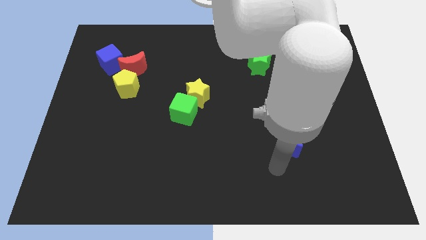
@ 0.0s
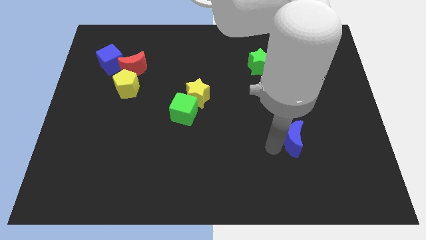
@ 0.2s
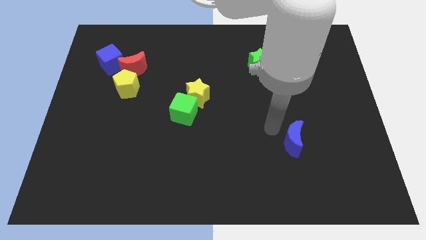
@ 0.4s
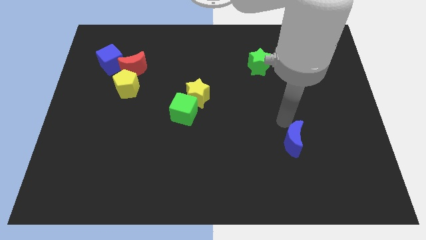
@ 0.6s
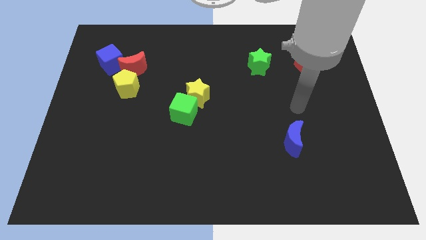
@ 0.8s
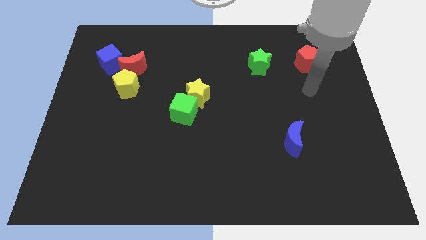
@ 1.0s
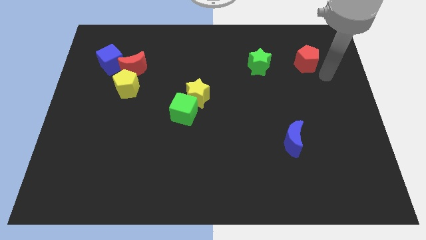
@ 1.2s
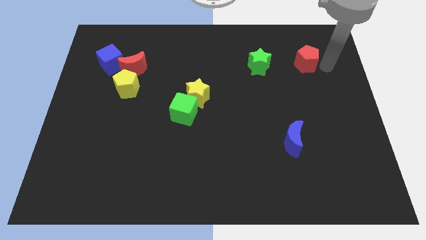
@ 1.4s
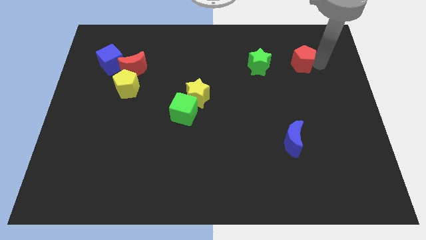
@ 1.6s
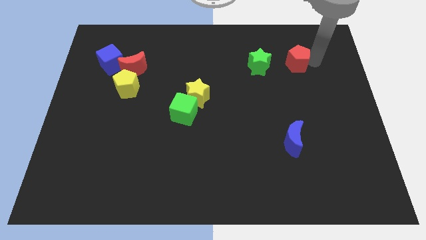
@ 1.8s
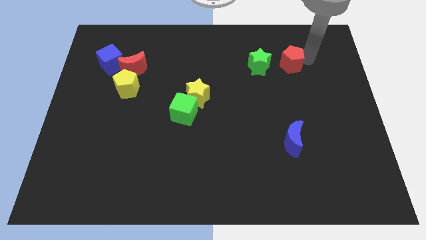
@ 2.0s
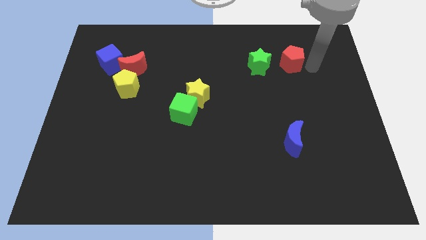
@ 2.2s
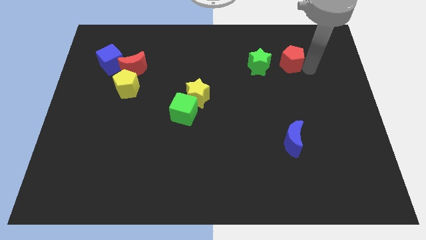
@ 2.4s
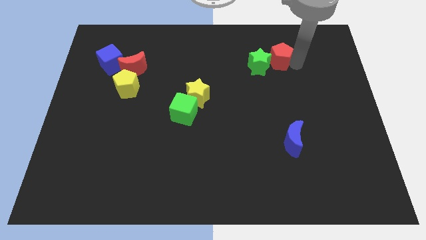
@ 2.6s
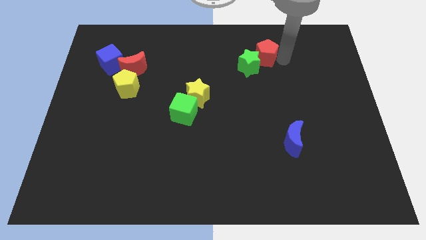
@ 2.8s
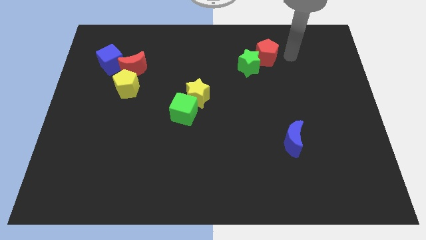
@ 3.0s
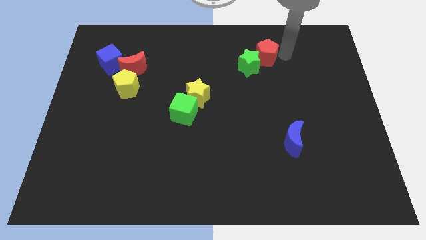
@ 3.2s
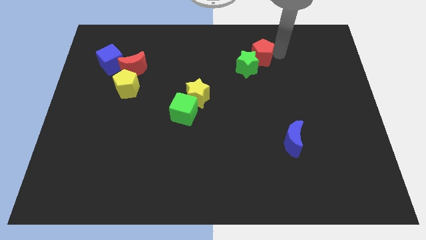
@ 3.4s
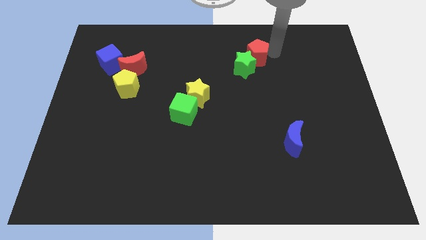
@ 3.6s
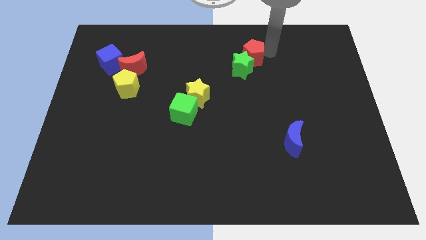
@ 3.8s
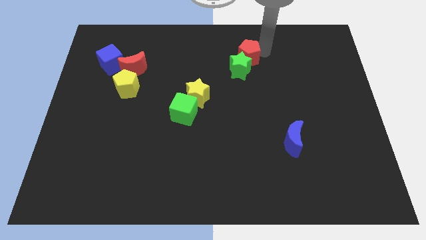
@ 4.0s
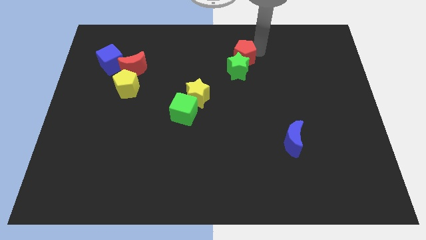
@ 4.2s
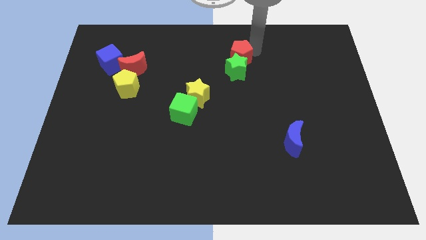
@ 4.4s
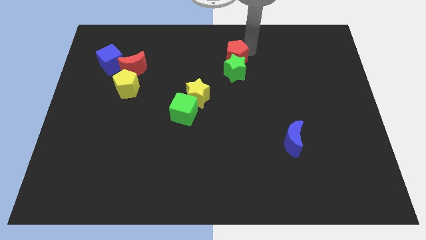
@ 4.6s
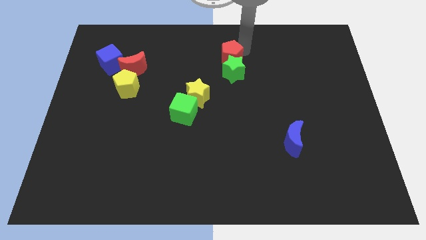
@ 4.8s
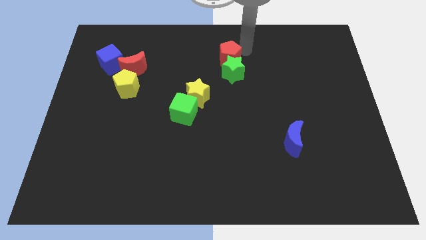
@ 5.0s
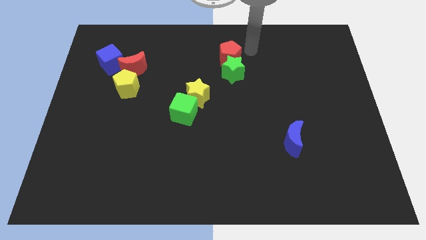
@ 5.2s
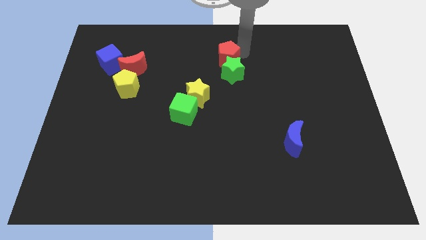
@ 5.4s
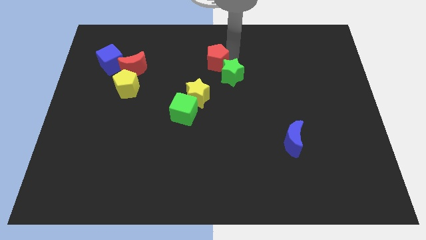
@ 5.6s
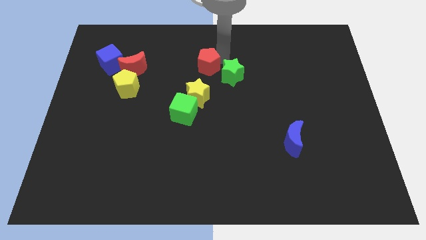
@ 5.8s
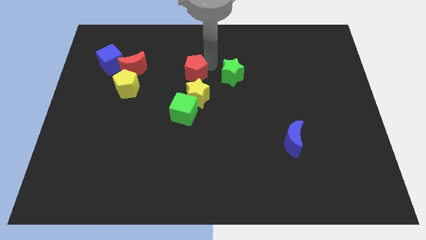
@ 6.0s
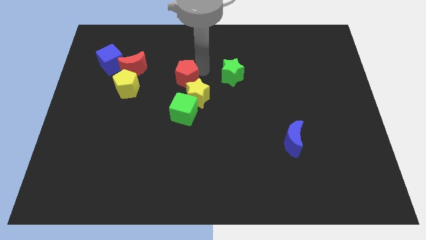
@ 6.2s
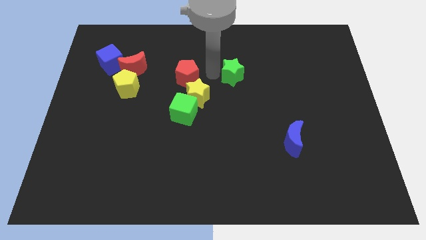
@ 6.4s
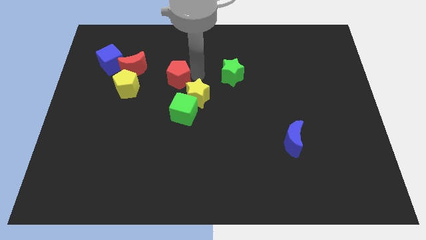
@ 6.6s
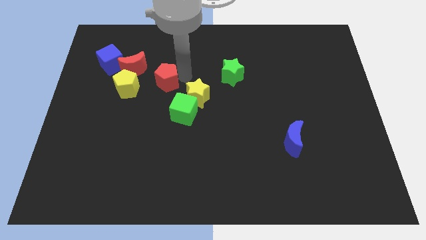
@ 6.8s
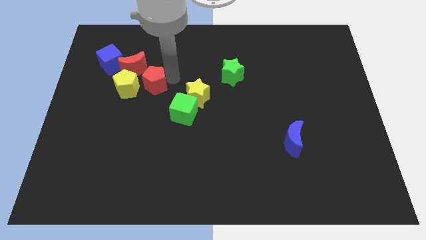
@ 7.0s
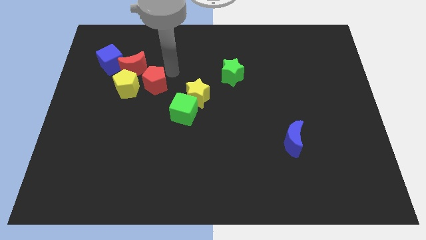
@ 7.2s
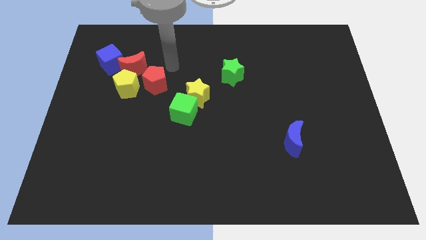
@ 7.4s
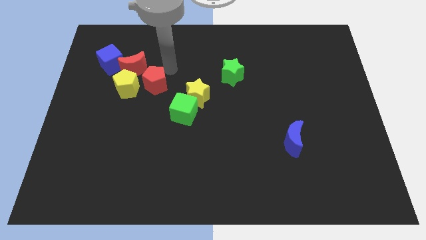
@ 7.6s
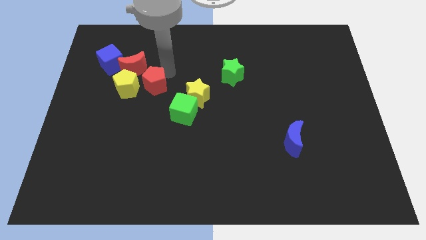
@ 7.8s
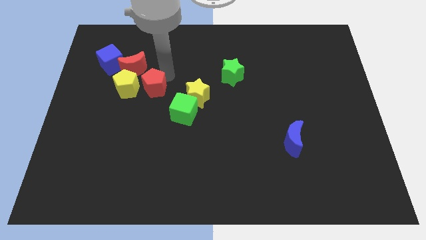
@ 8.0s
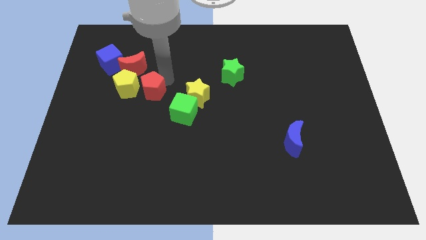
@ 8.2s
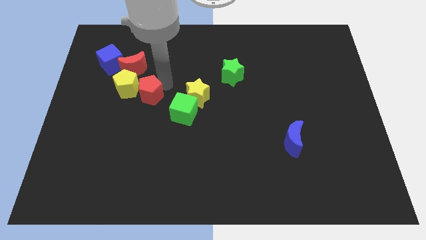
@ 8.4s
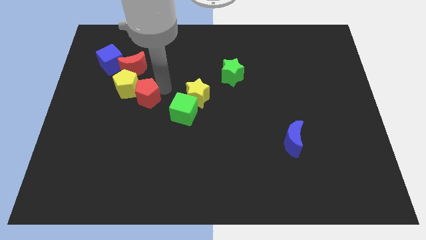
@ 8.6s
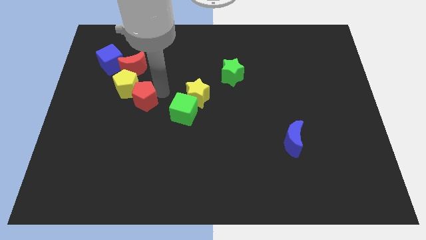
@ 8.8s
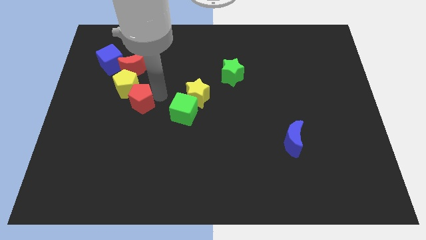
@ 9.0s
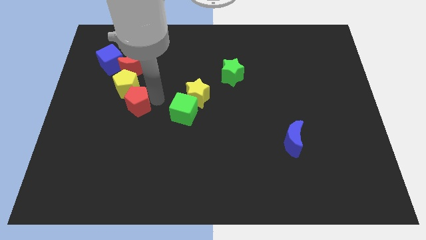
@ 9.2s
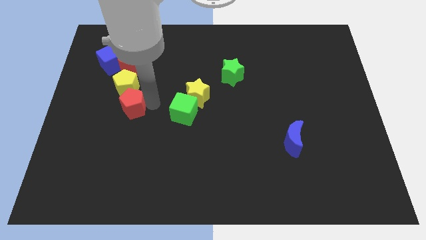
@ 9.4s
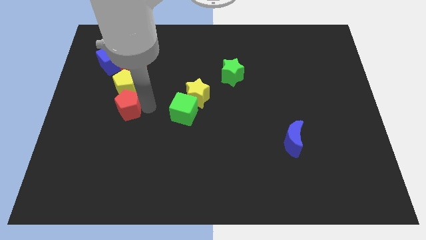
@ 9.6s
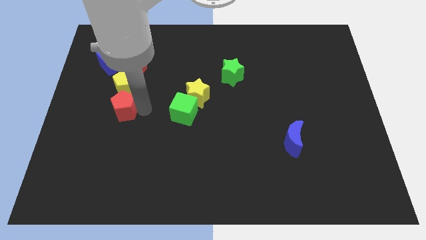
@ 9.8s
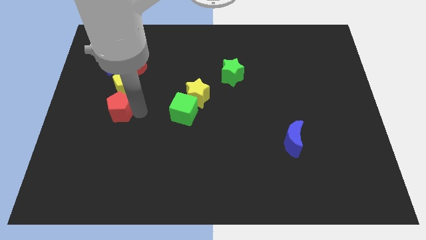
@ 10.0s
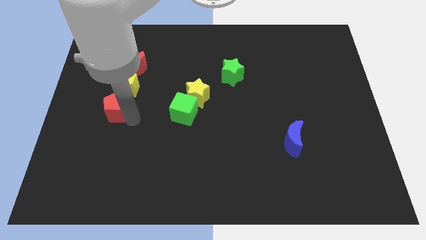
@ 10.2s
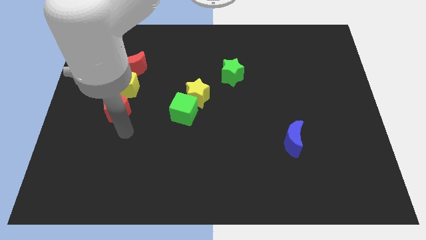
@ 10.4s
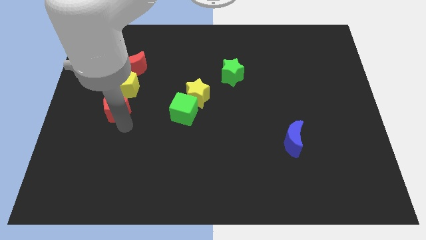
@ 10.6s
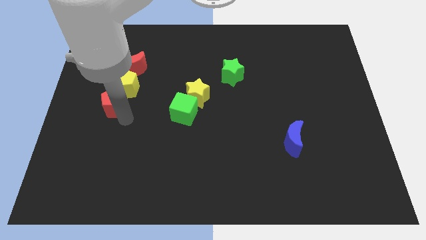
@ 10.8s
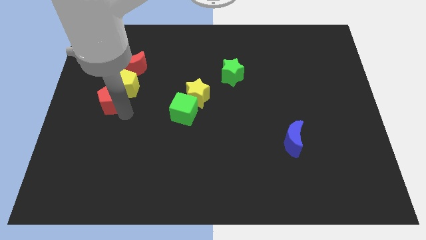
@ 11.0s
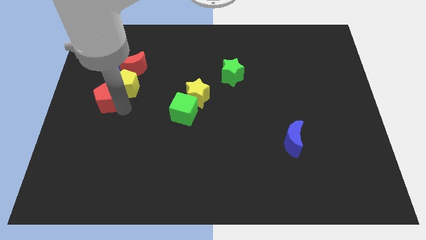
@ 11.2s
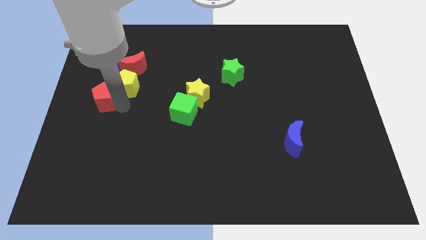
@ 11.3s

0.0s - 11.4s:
push the red pentagon to the bottom left of the red moon

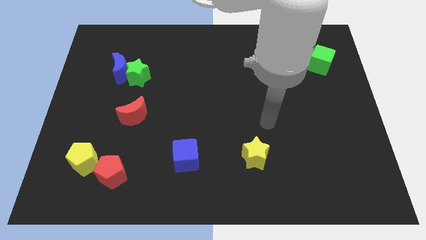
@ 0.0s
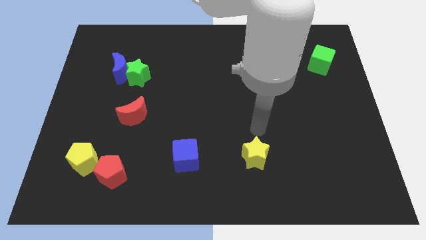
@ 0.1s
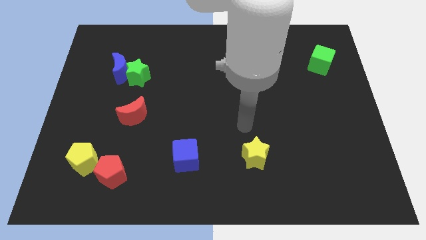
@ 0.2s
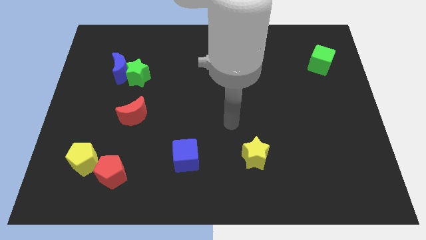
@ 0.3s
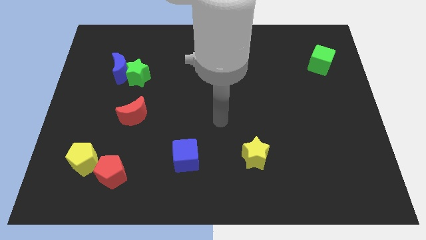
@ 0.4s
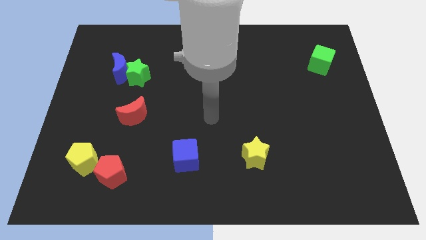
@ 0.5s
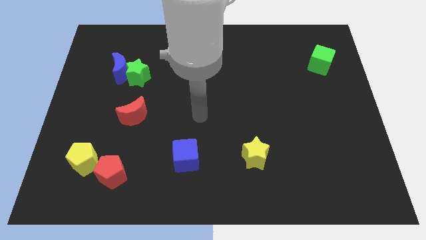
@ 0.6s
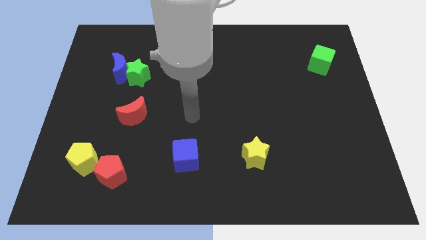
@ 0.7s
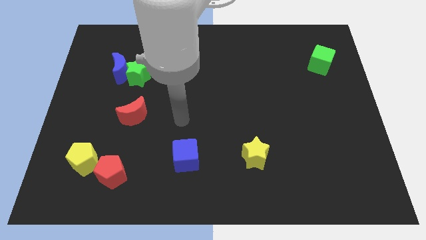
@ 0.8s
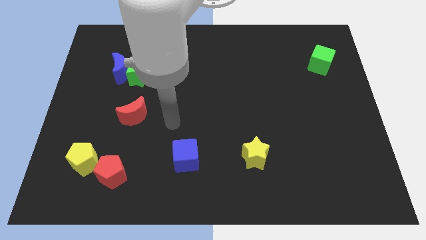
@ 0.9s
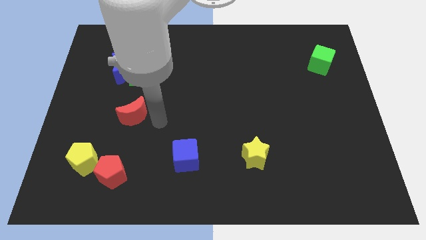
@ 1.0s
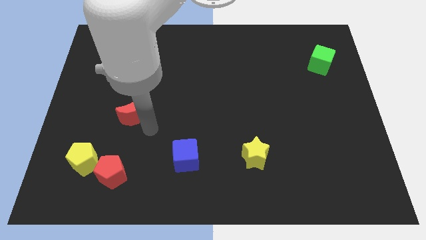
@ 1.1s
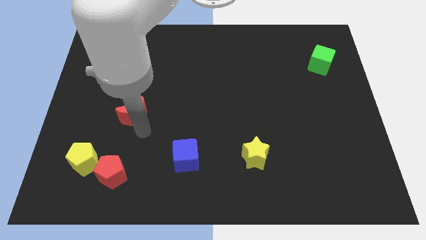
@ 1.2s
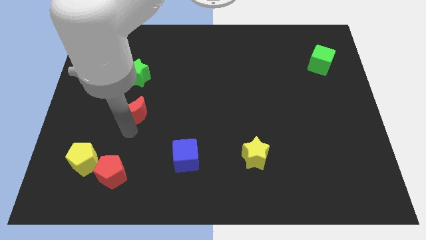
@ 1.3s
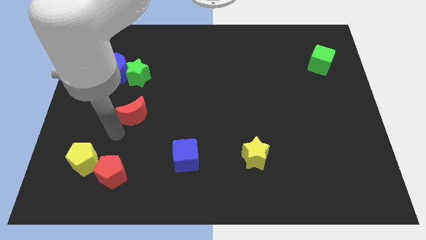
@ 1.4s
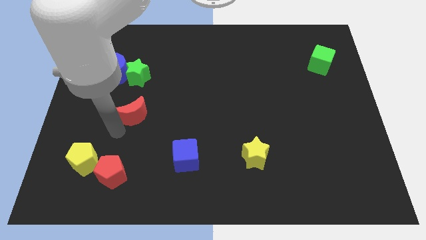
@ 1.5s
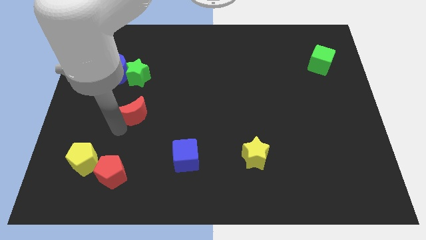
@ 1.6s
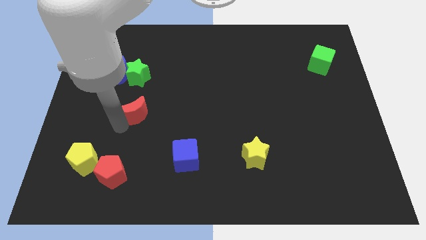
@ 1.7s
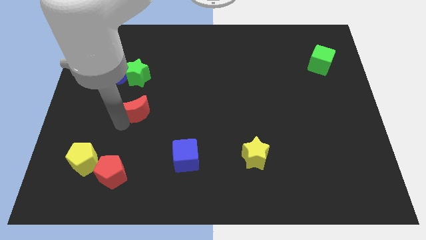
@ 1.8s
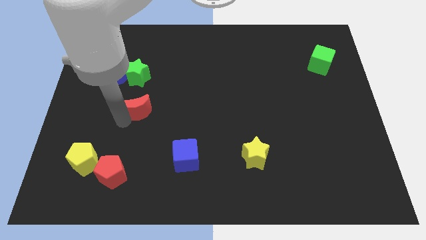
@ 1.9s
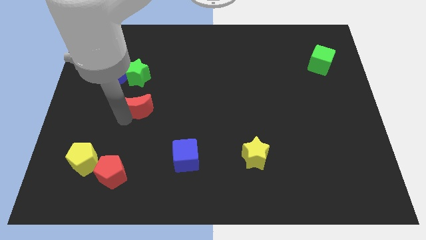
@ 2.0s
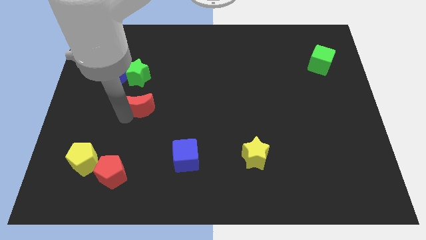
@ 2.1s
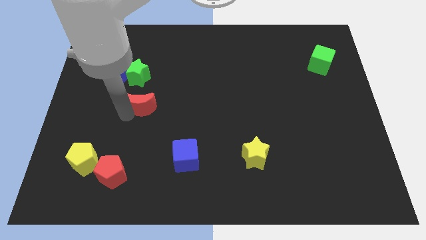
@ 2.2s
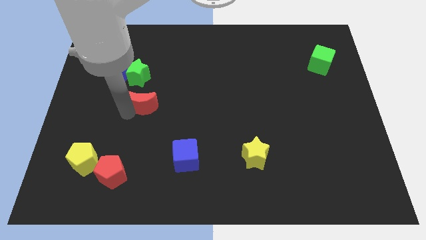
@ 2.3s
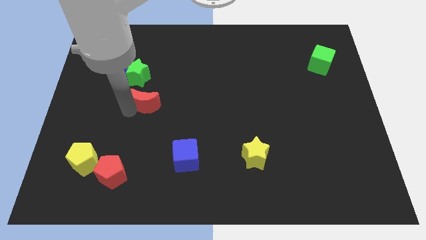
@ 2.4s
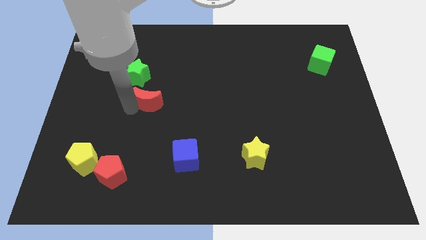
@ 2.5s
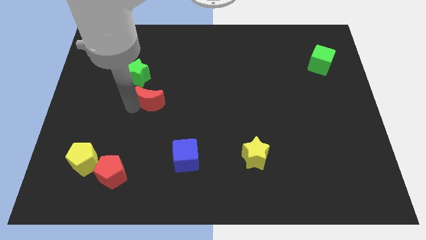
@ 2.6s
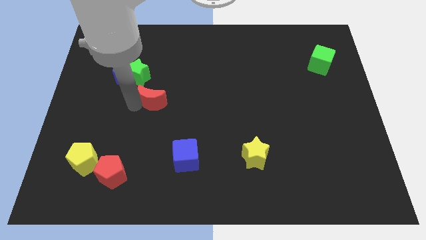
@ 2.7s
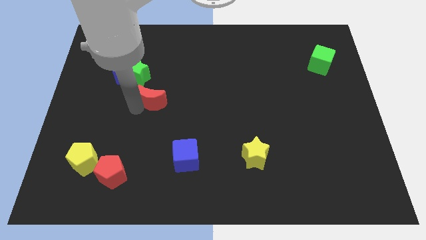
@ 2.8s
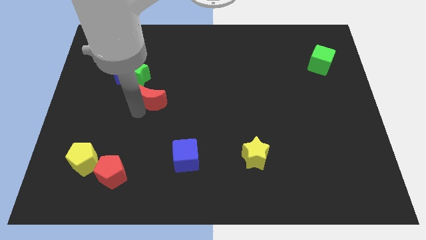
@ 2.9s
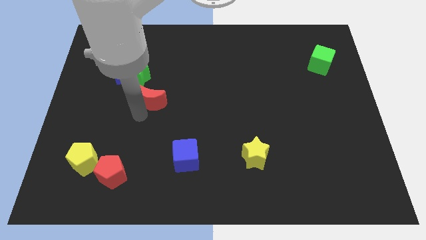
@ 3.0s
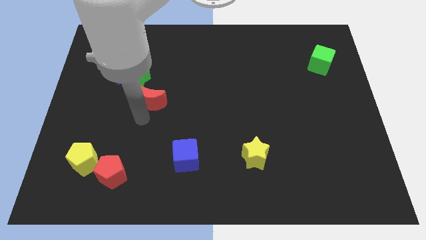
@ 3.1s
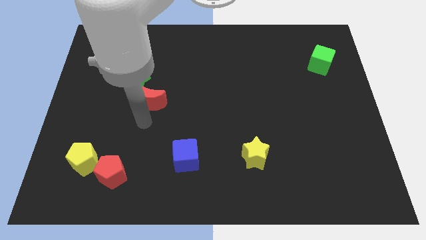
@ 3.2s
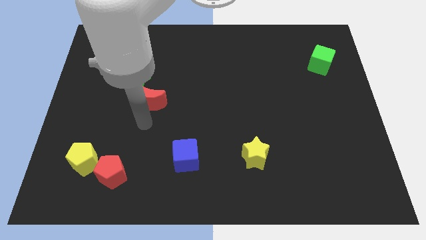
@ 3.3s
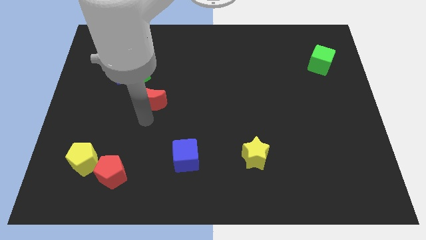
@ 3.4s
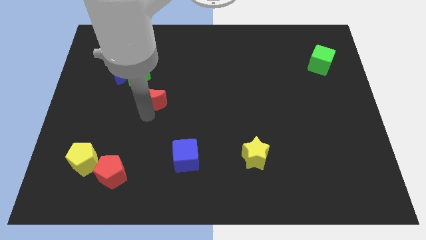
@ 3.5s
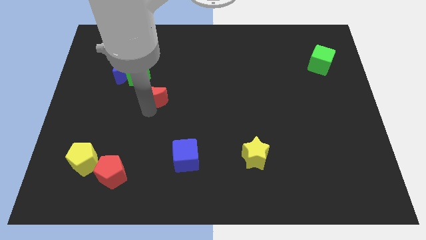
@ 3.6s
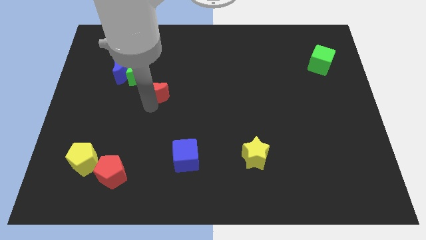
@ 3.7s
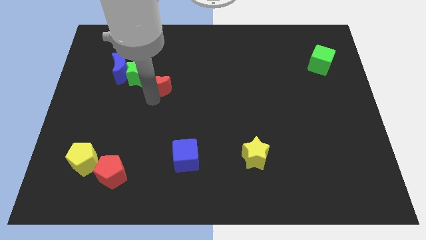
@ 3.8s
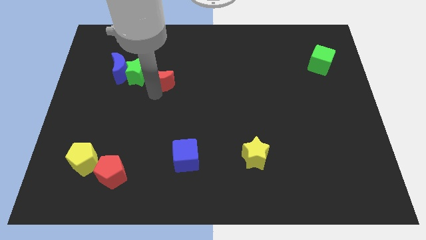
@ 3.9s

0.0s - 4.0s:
push the red moon to the right of the blue moon
